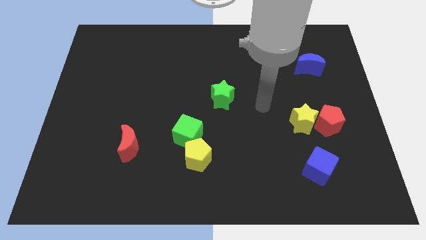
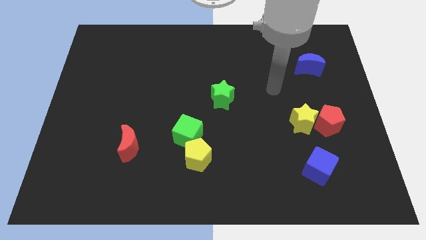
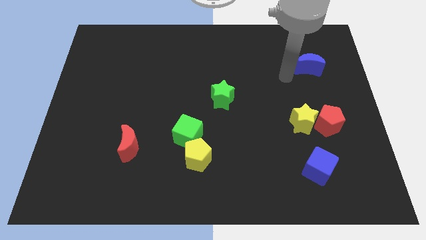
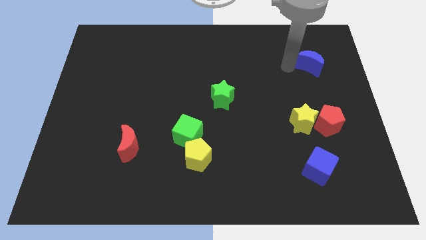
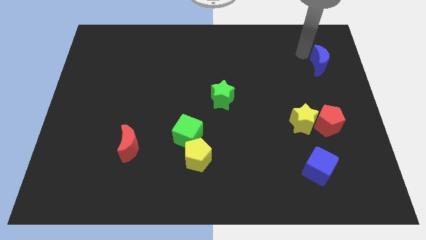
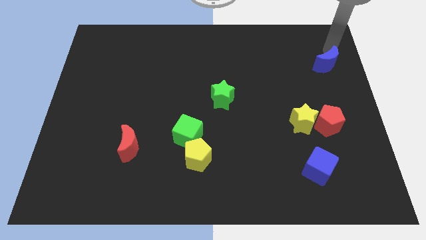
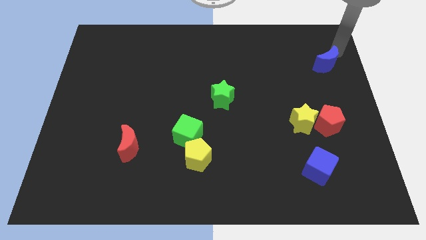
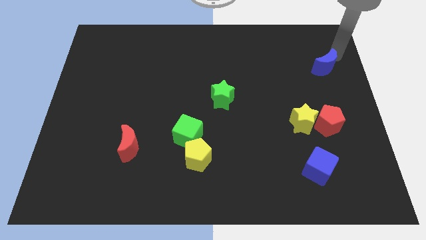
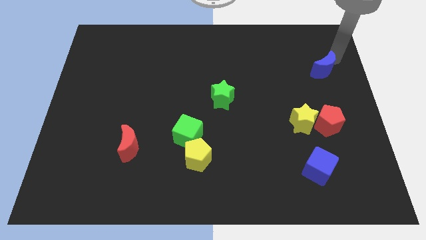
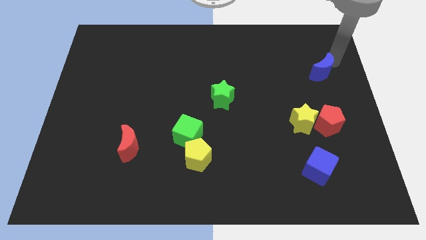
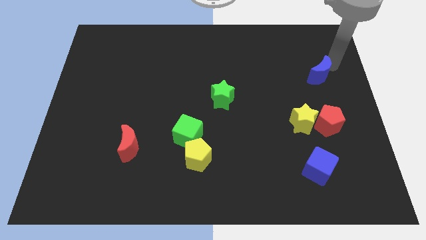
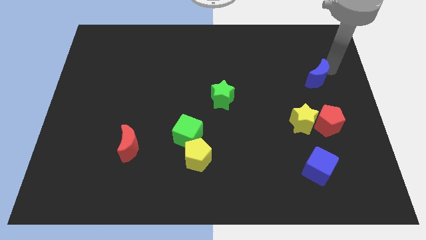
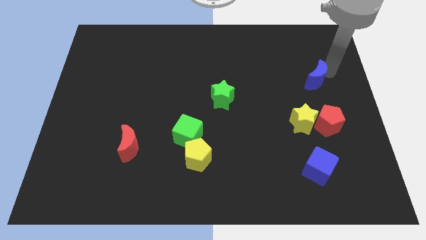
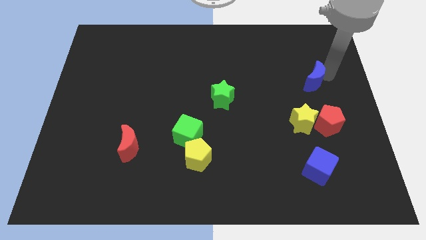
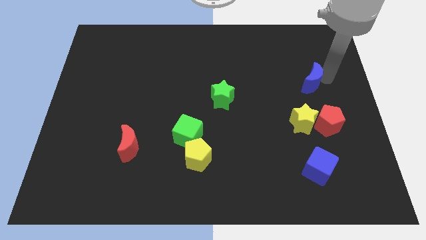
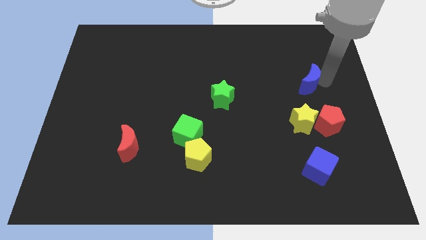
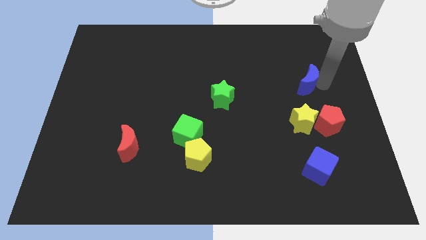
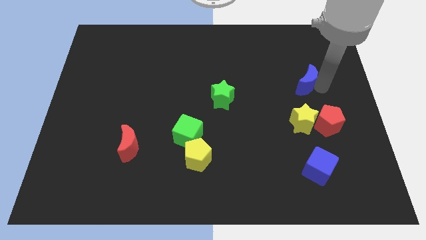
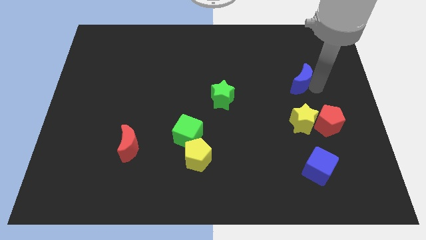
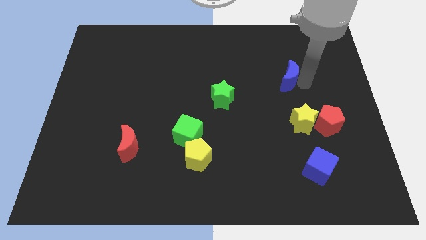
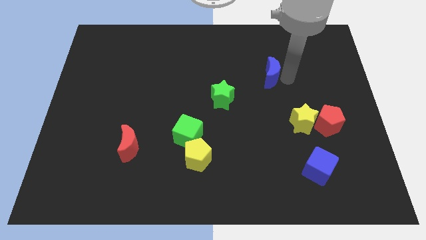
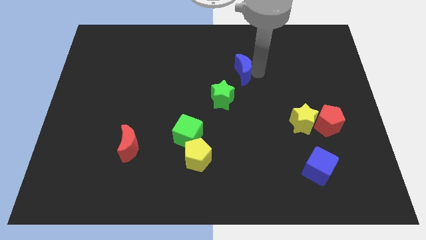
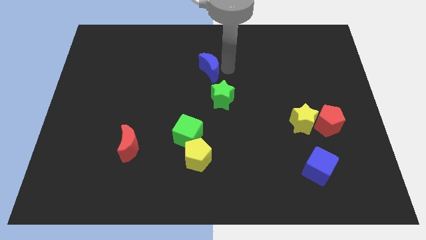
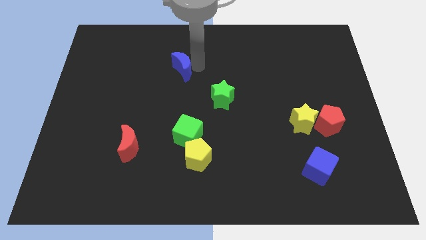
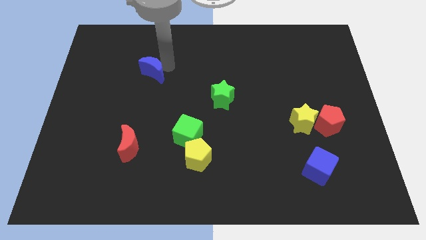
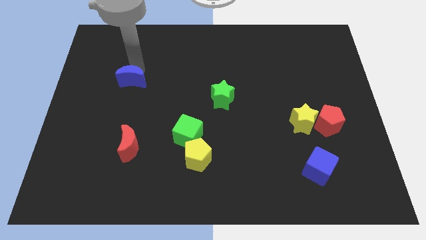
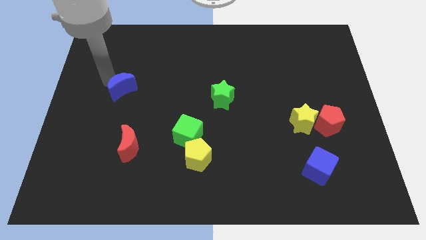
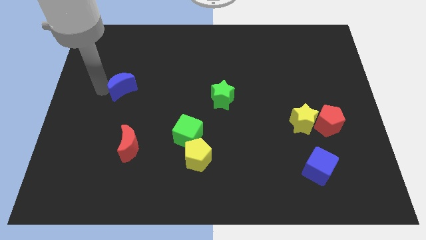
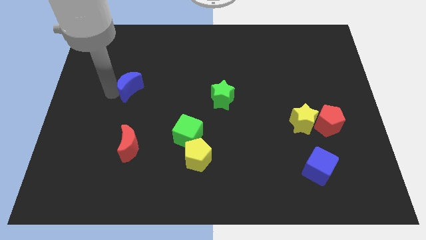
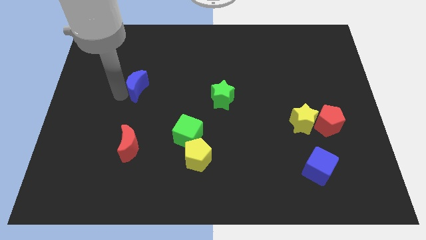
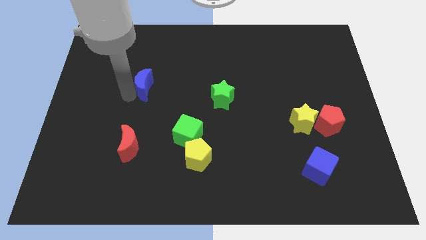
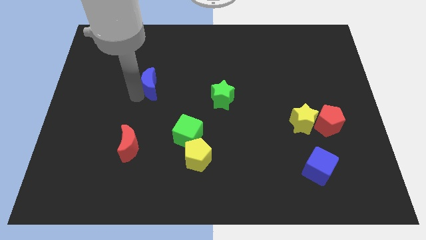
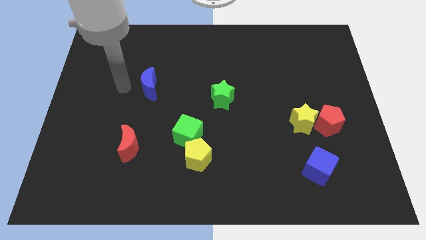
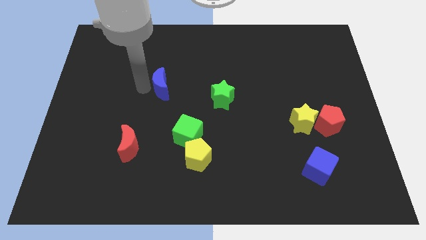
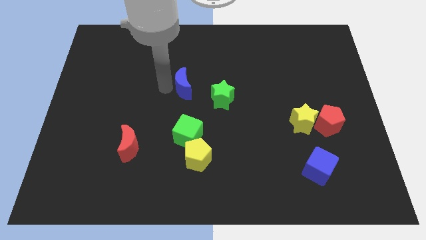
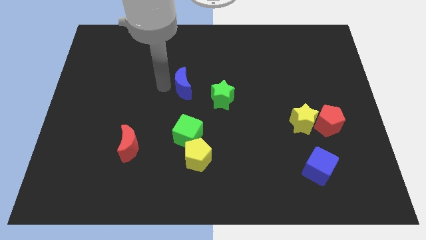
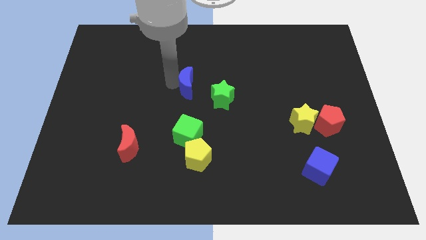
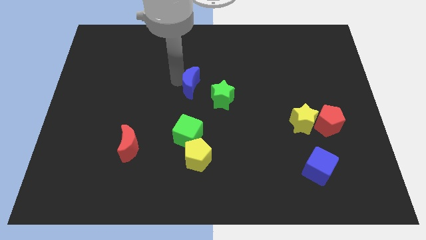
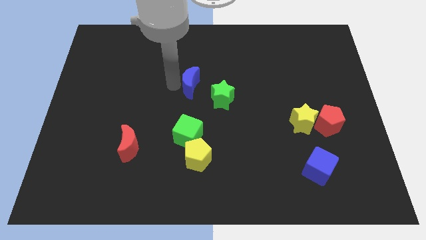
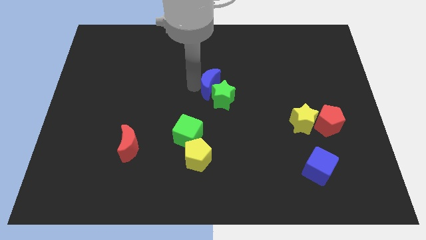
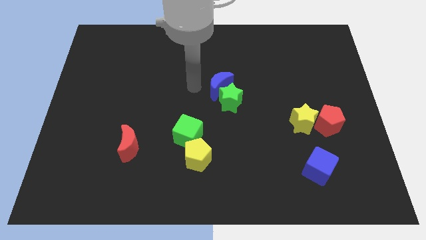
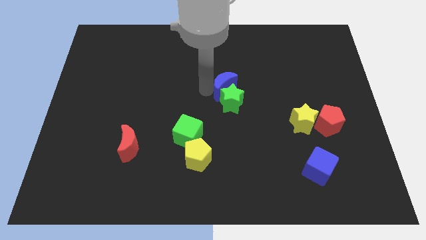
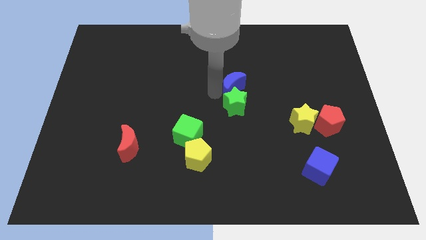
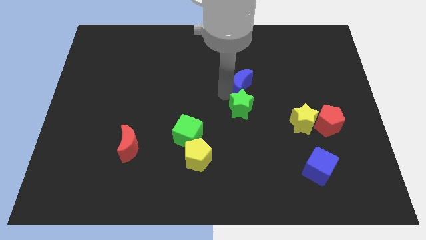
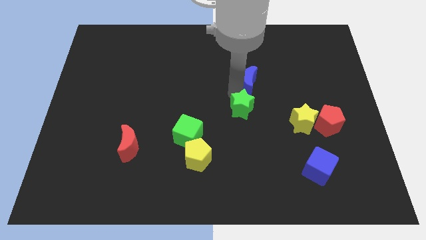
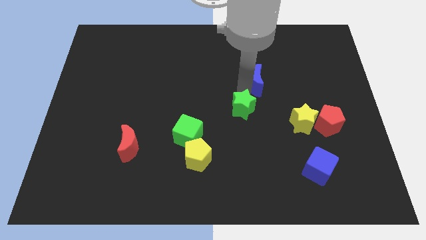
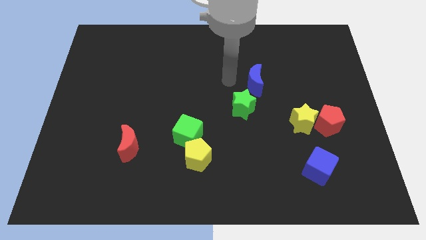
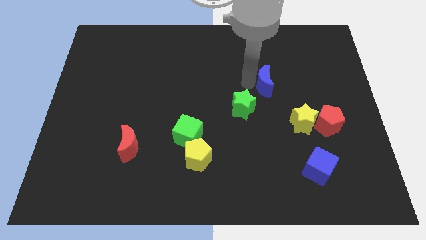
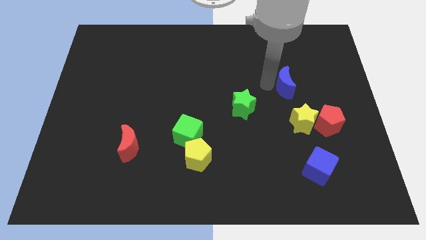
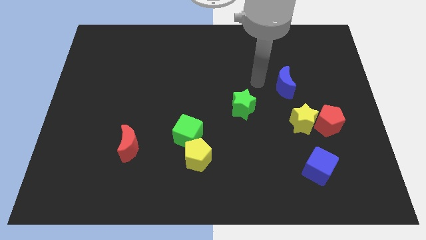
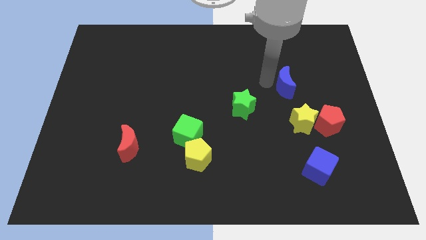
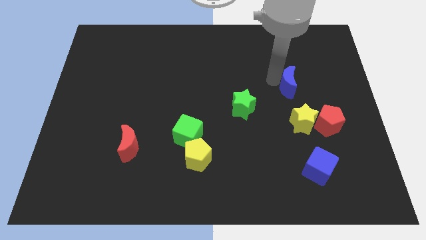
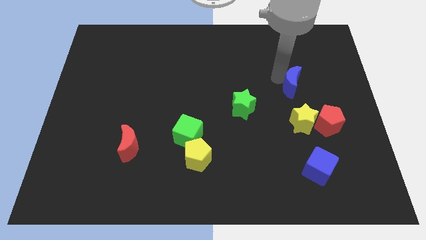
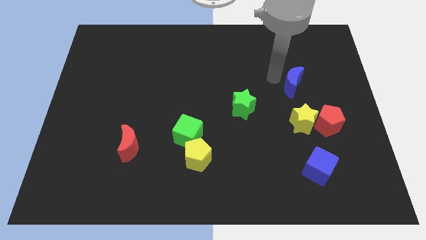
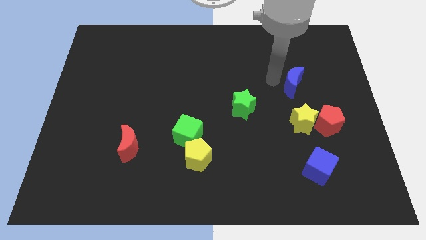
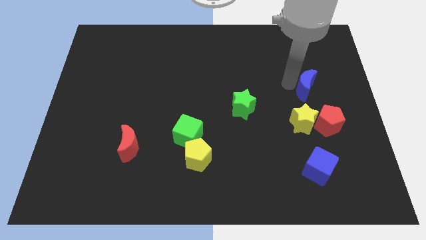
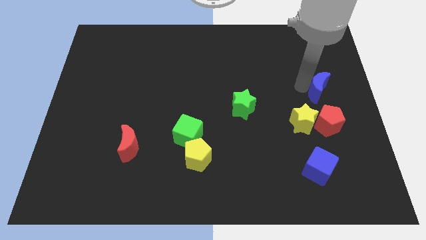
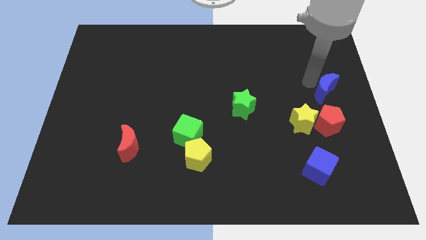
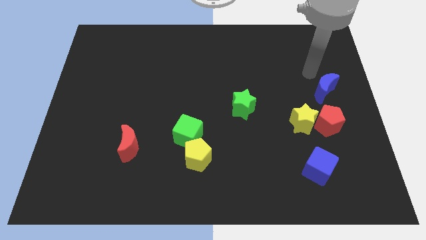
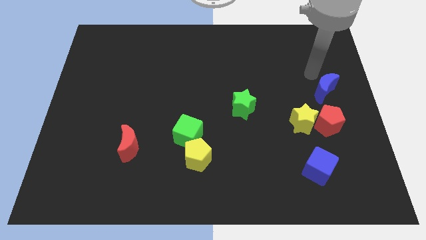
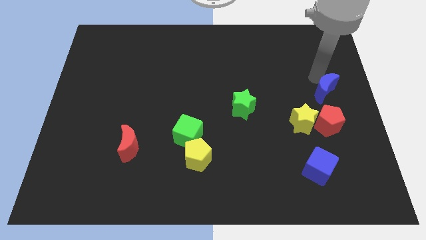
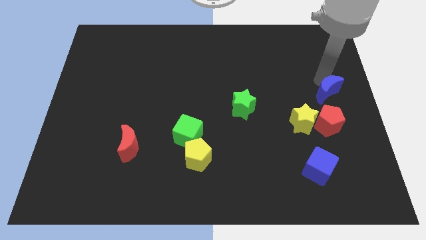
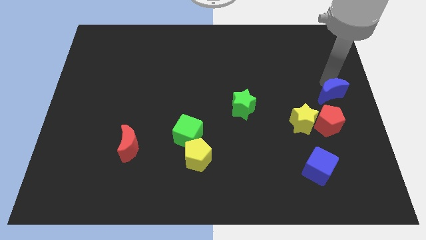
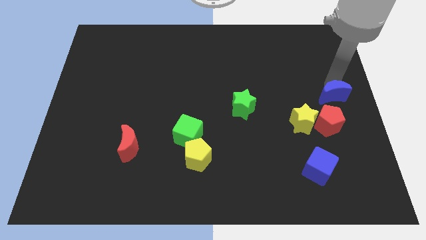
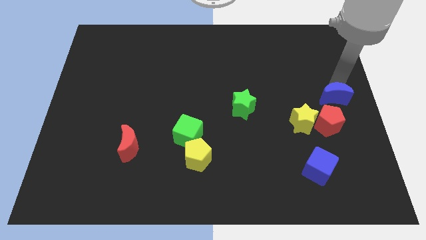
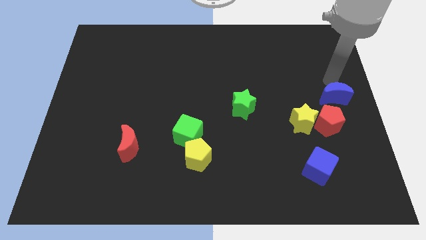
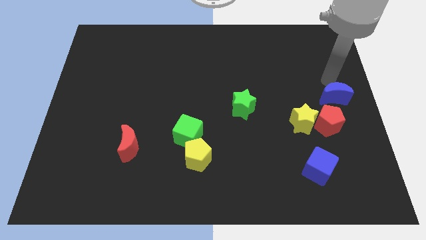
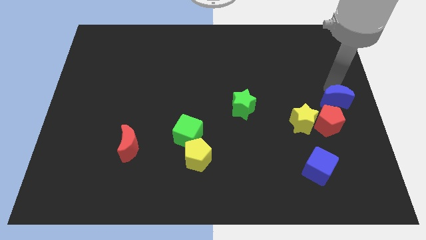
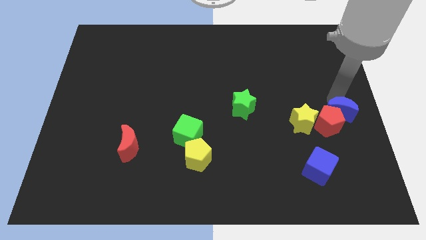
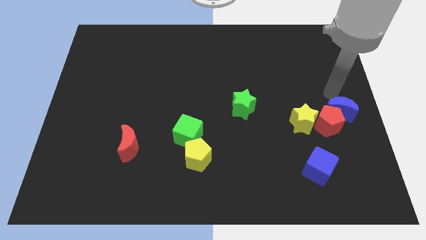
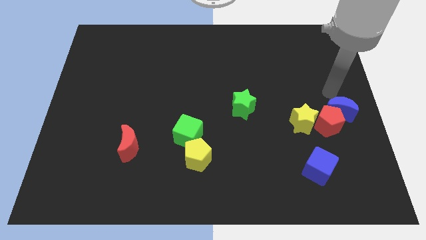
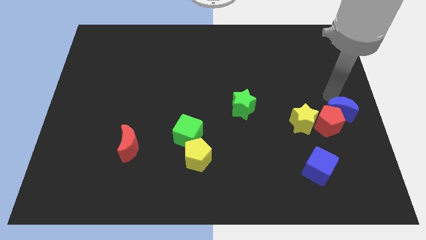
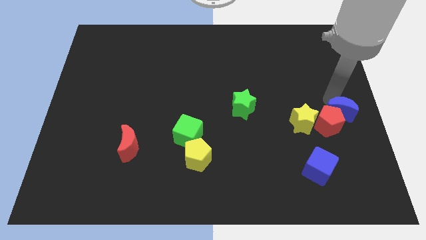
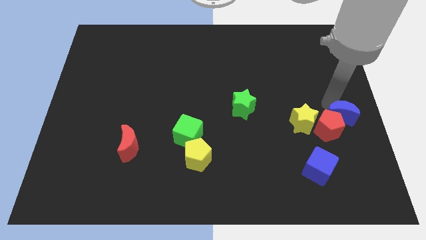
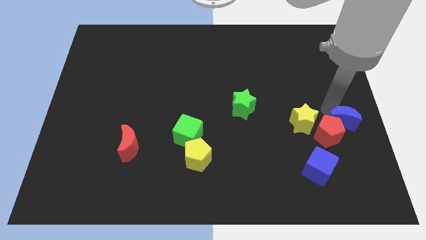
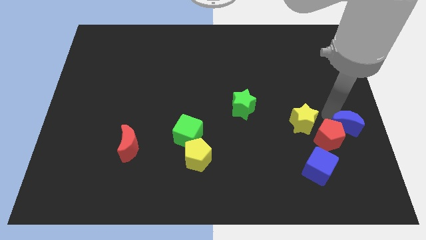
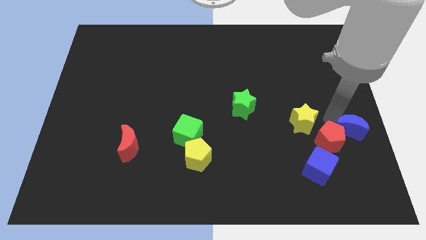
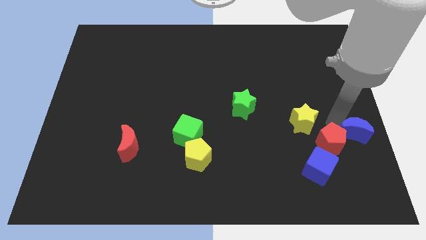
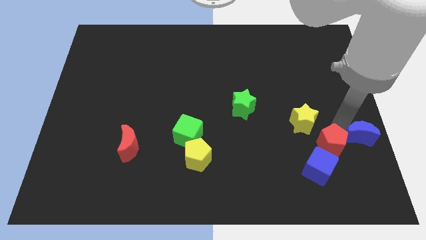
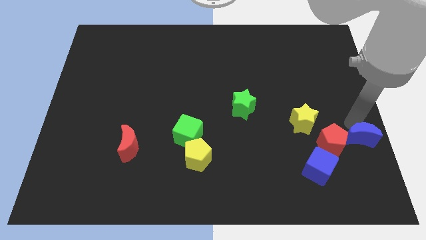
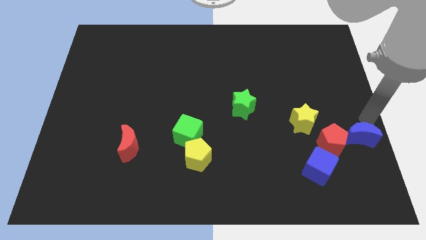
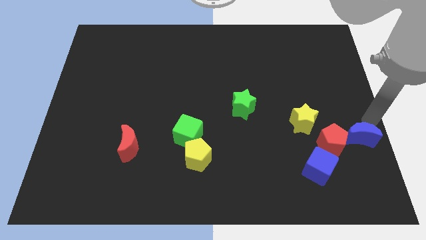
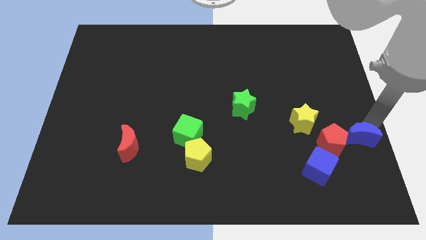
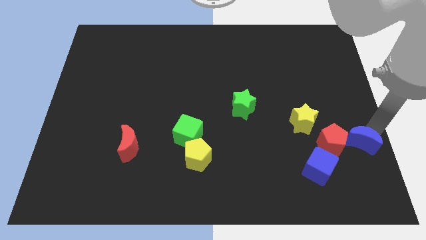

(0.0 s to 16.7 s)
slide the blue moon downwards
